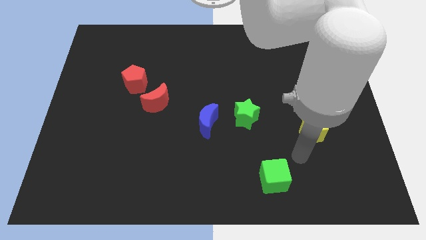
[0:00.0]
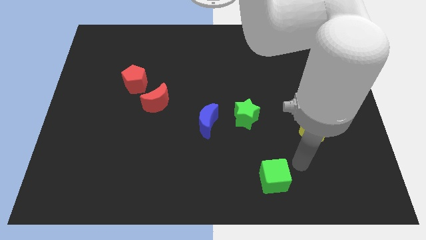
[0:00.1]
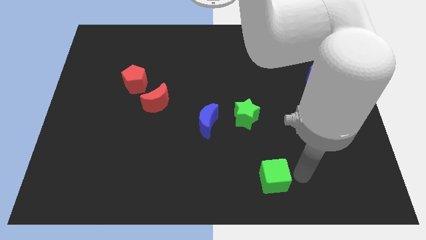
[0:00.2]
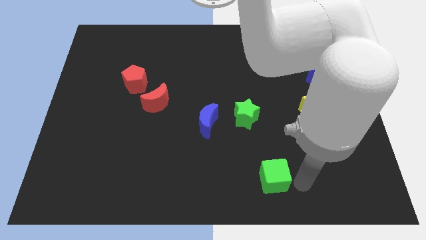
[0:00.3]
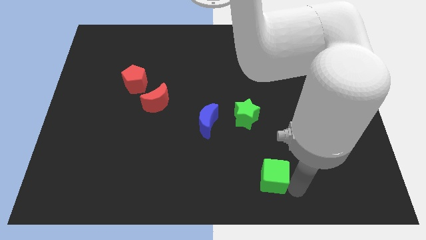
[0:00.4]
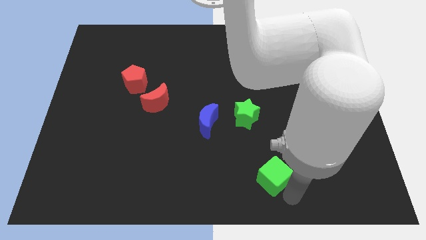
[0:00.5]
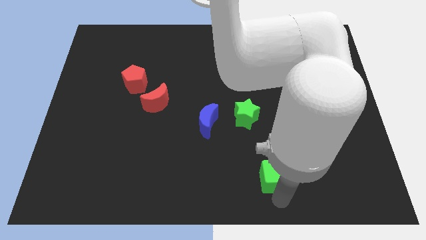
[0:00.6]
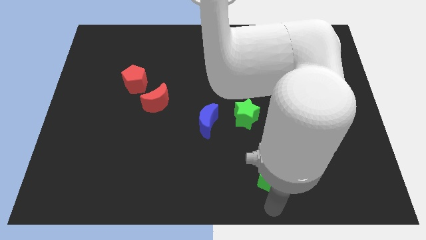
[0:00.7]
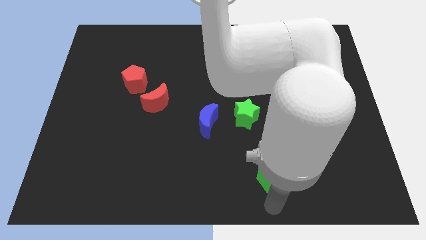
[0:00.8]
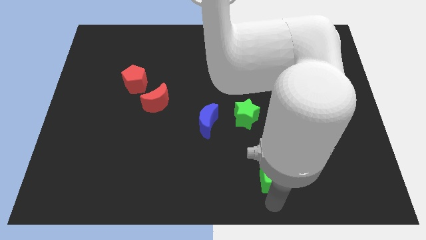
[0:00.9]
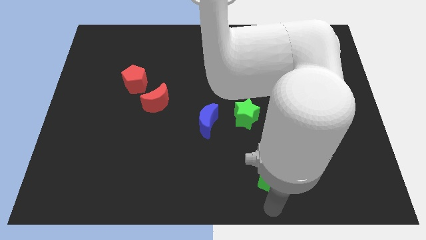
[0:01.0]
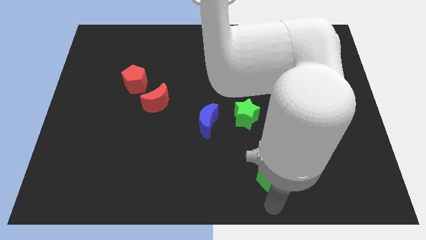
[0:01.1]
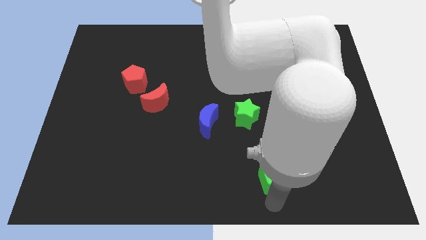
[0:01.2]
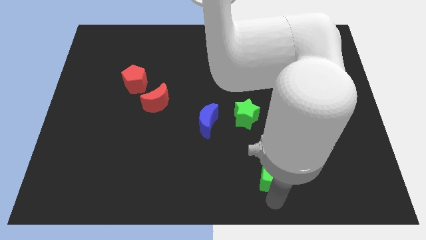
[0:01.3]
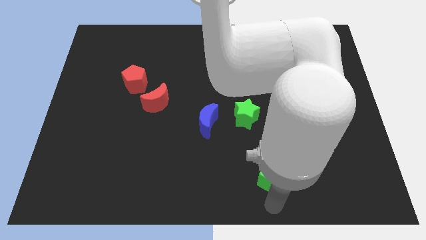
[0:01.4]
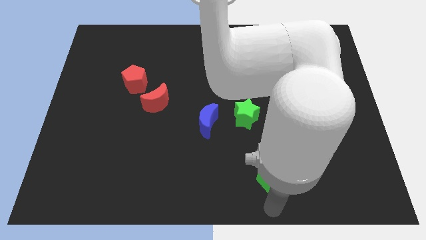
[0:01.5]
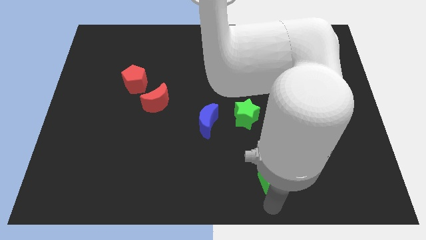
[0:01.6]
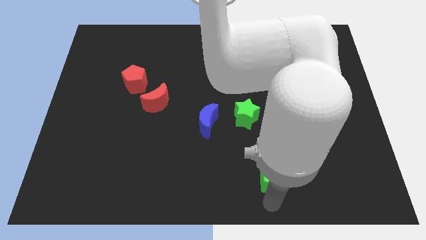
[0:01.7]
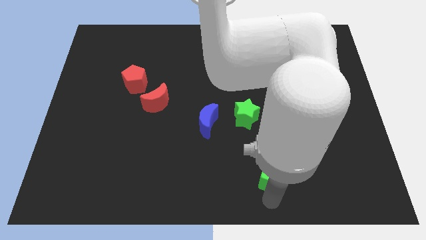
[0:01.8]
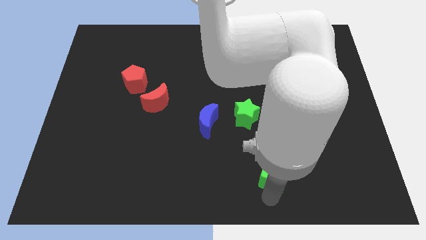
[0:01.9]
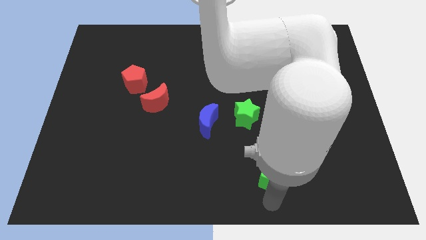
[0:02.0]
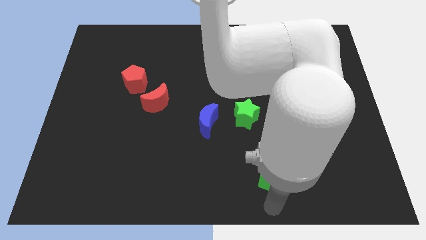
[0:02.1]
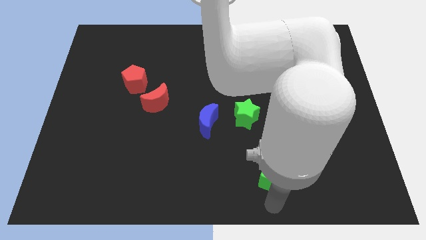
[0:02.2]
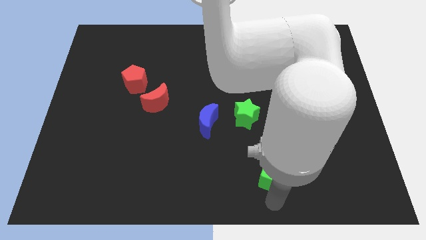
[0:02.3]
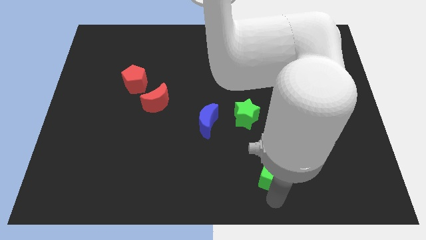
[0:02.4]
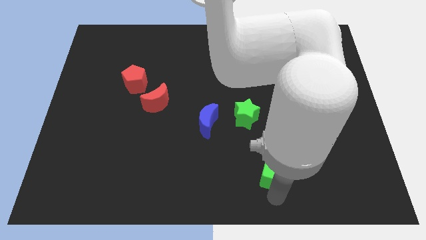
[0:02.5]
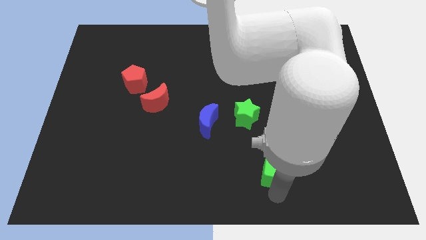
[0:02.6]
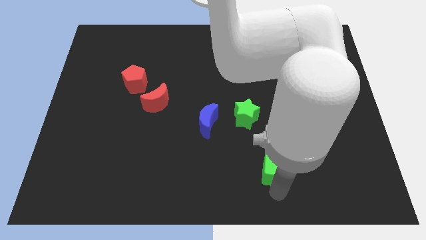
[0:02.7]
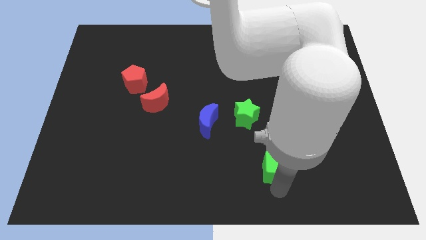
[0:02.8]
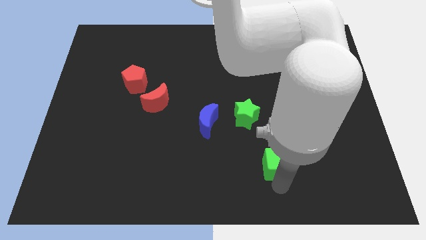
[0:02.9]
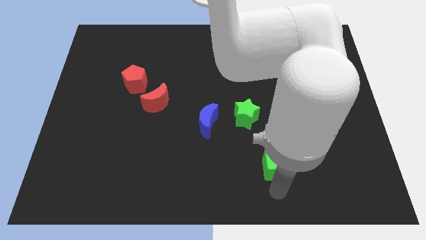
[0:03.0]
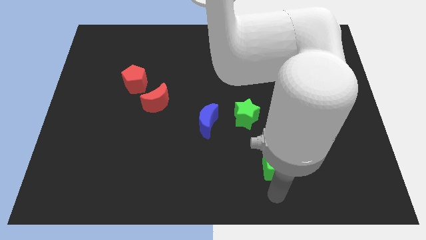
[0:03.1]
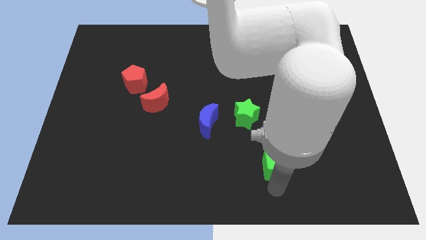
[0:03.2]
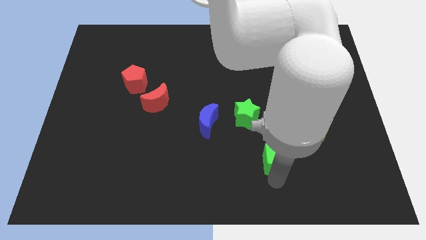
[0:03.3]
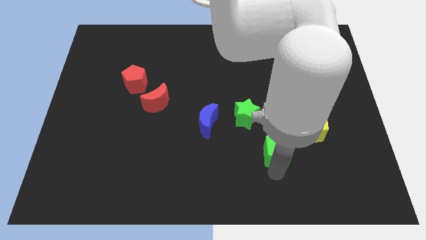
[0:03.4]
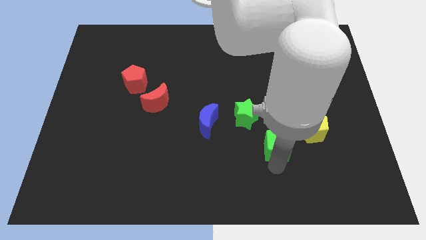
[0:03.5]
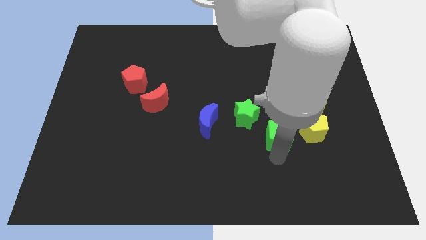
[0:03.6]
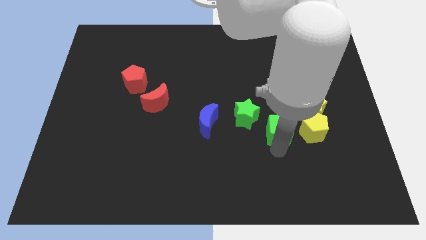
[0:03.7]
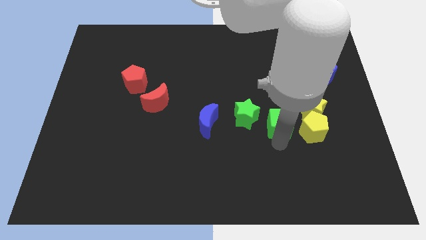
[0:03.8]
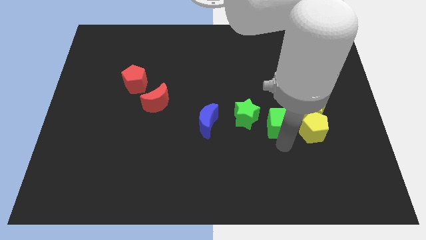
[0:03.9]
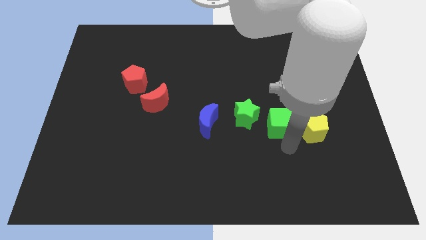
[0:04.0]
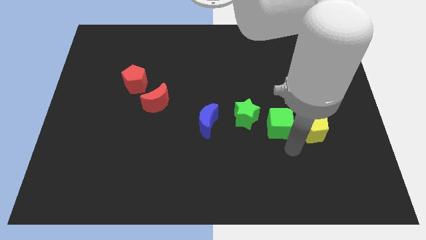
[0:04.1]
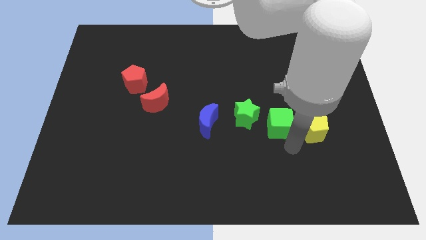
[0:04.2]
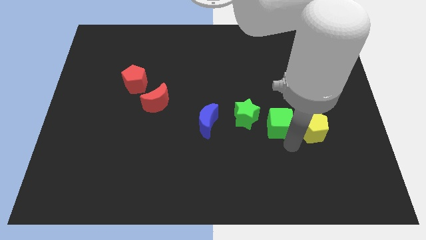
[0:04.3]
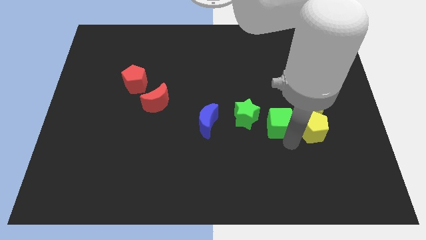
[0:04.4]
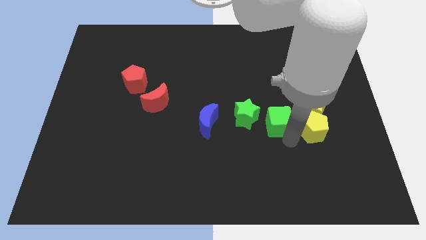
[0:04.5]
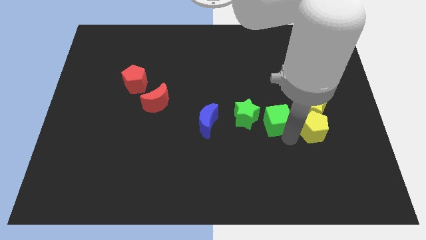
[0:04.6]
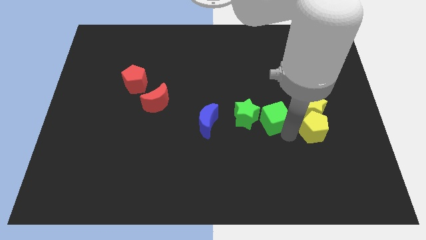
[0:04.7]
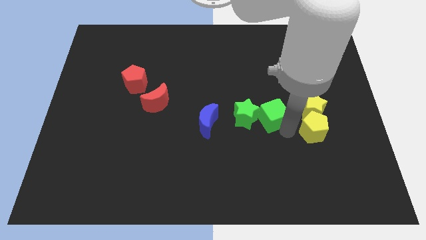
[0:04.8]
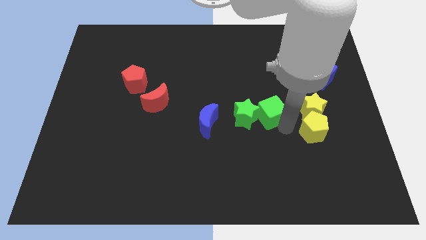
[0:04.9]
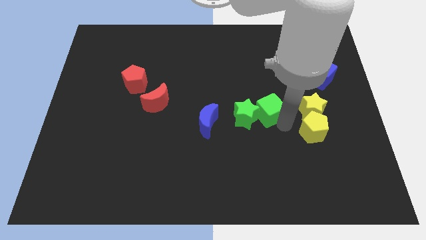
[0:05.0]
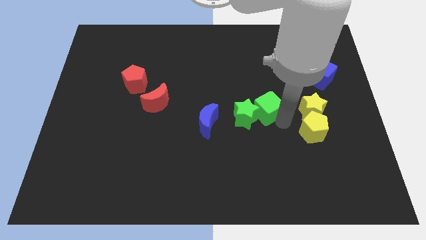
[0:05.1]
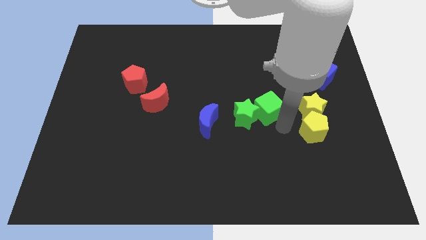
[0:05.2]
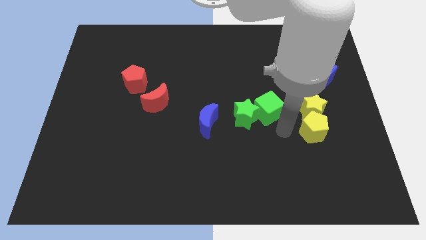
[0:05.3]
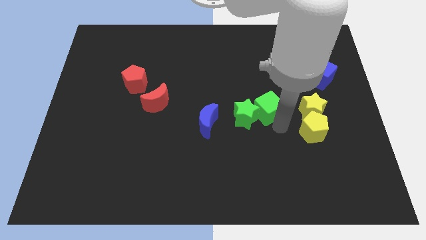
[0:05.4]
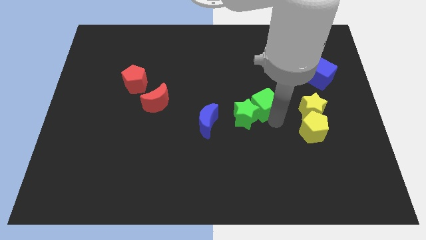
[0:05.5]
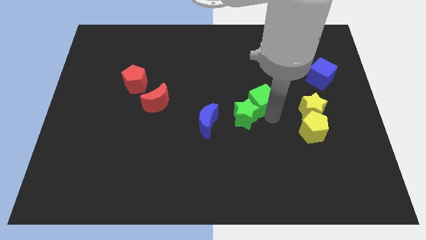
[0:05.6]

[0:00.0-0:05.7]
put the green cube to the top of the green star

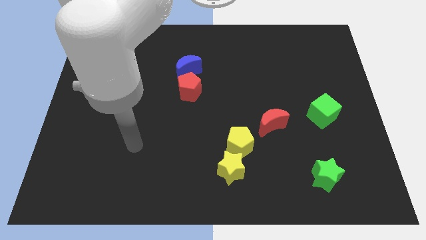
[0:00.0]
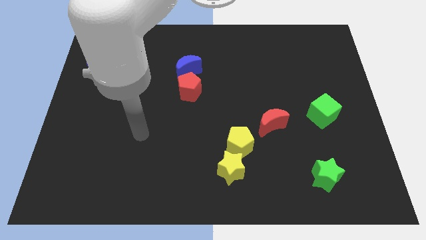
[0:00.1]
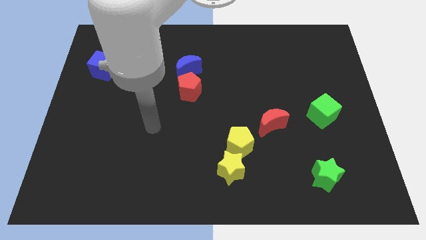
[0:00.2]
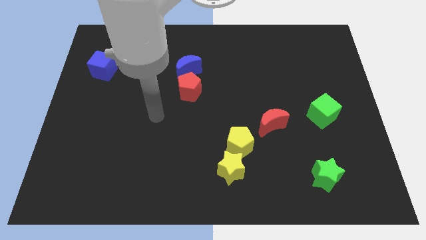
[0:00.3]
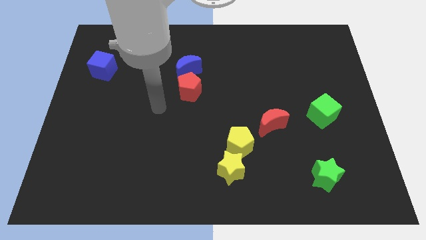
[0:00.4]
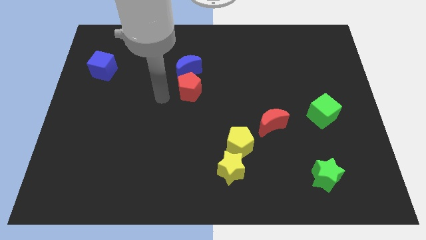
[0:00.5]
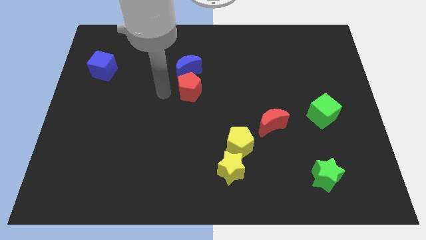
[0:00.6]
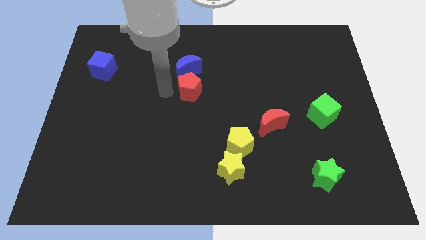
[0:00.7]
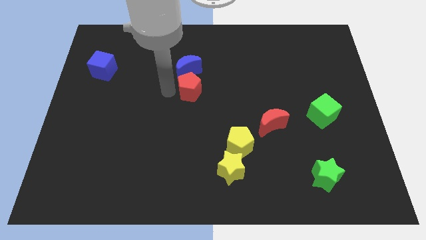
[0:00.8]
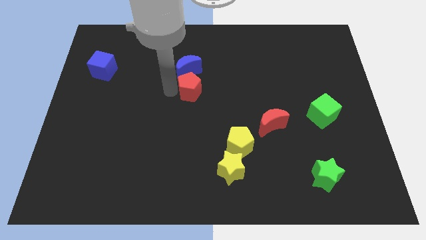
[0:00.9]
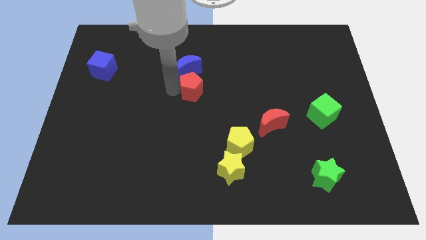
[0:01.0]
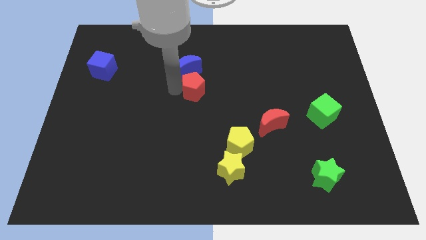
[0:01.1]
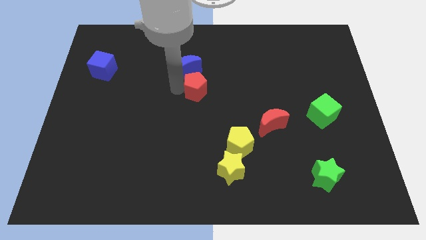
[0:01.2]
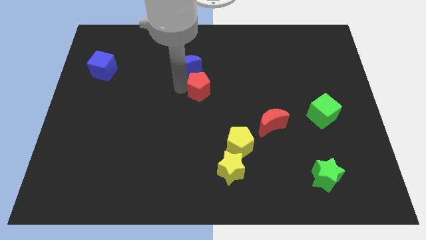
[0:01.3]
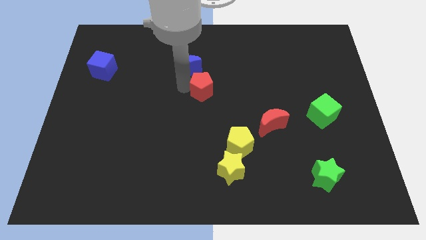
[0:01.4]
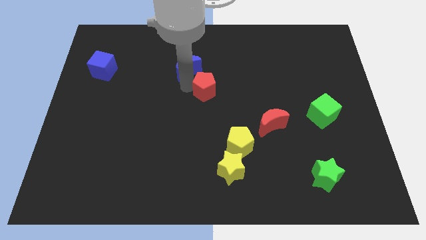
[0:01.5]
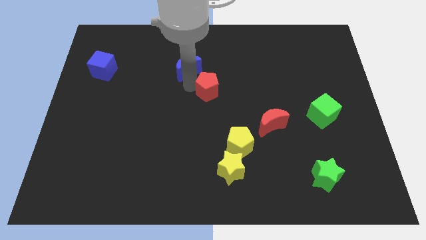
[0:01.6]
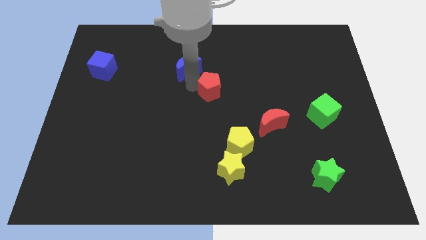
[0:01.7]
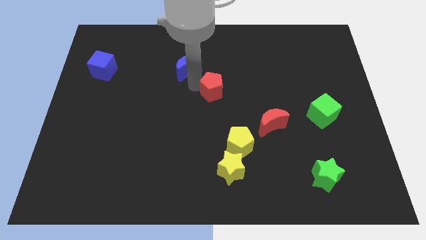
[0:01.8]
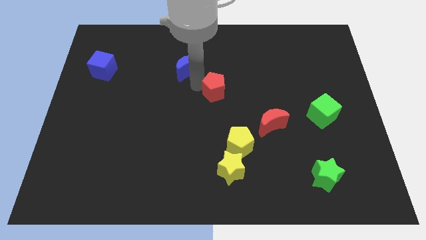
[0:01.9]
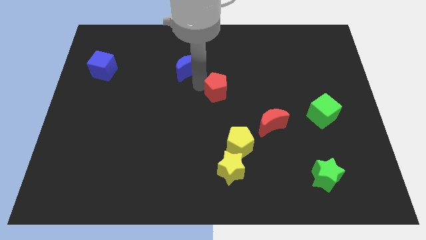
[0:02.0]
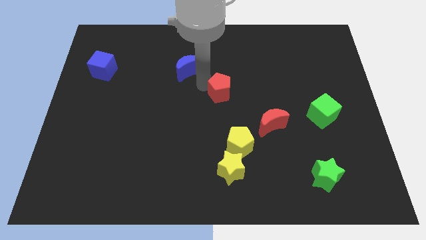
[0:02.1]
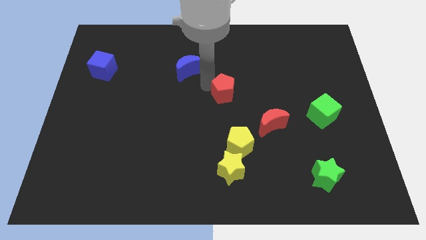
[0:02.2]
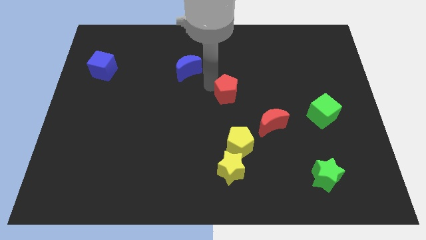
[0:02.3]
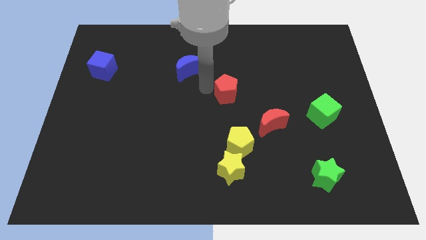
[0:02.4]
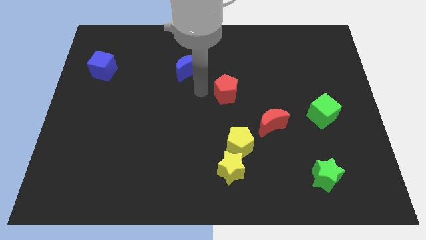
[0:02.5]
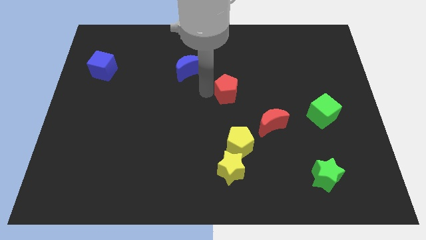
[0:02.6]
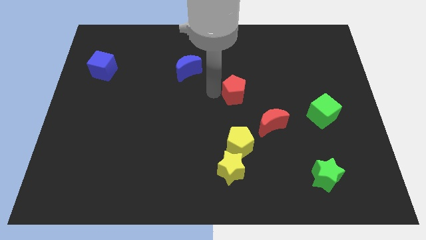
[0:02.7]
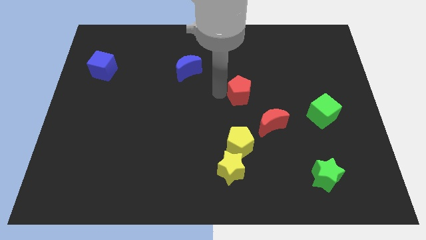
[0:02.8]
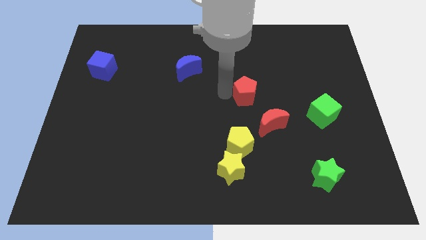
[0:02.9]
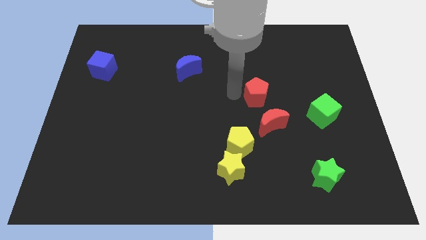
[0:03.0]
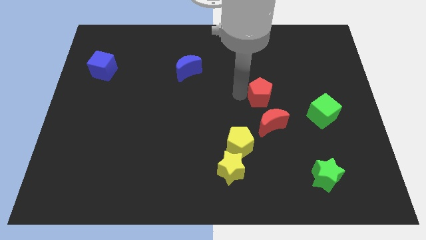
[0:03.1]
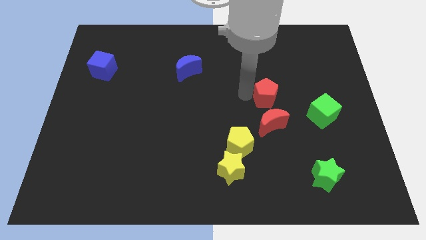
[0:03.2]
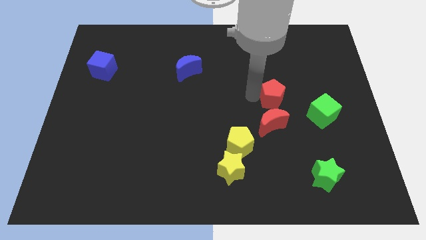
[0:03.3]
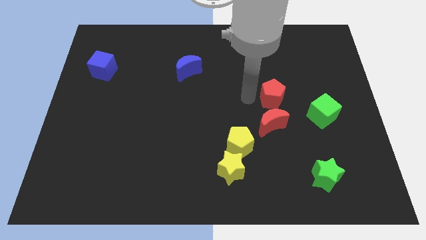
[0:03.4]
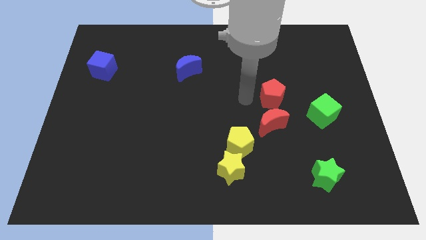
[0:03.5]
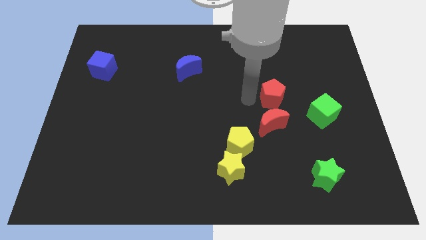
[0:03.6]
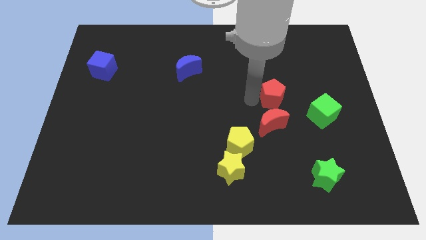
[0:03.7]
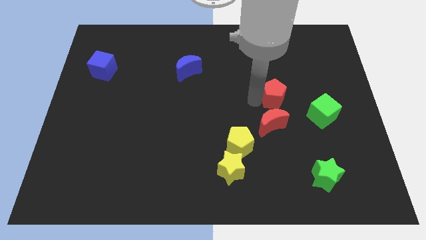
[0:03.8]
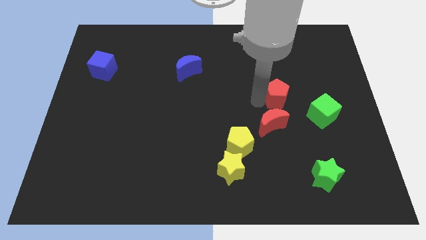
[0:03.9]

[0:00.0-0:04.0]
slide the red pentagon diagonally up and to the left of the green cube
